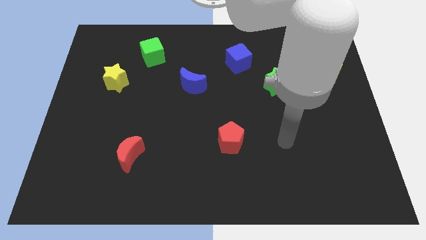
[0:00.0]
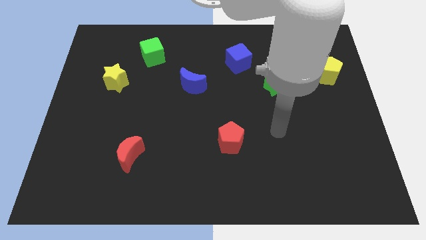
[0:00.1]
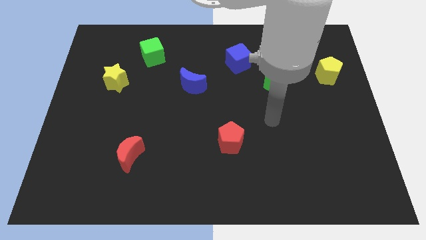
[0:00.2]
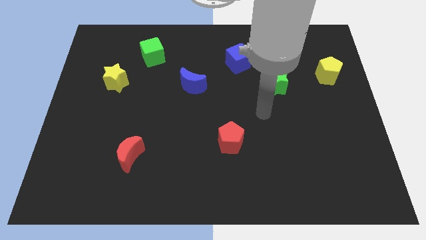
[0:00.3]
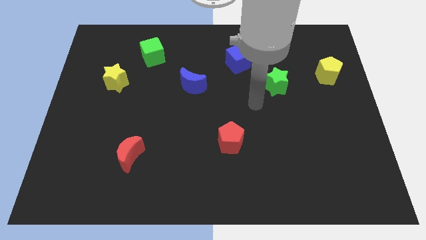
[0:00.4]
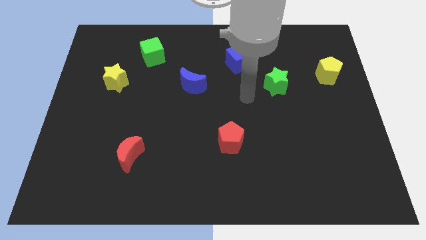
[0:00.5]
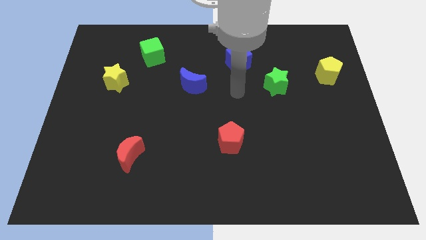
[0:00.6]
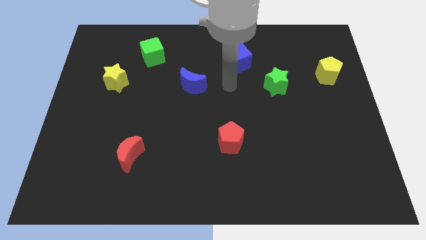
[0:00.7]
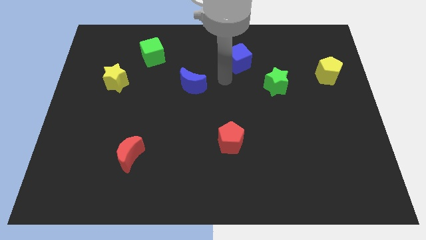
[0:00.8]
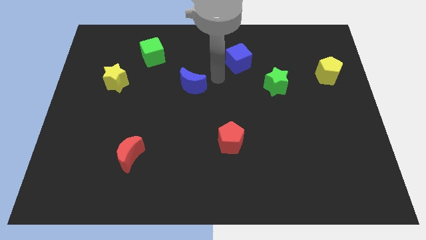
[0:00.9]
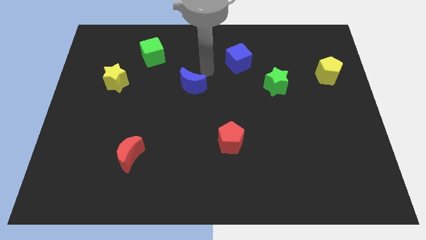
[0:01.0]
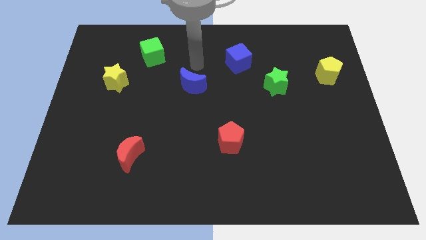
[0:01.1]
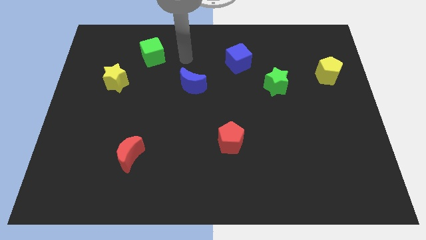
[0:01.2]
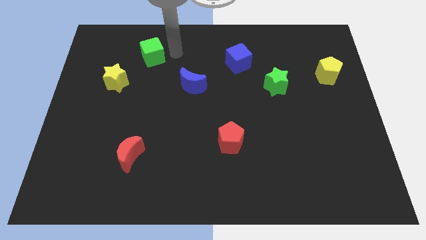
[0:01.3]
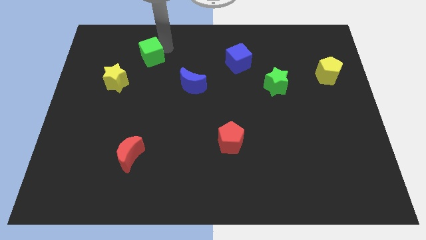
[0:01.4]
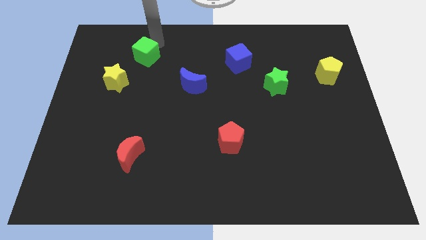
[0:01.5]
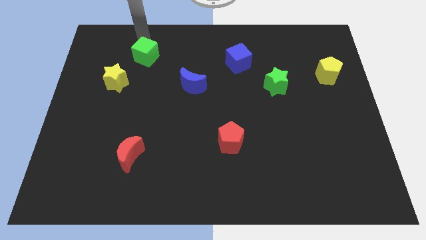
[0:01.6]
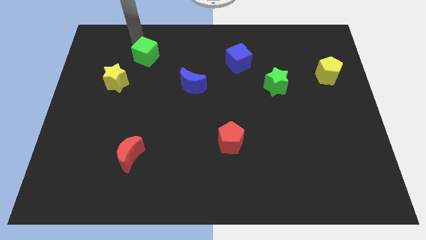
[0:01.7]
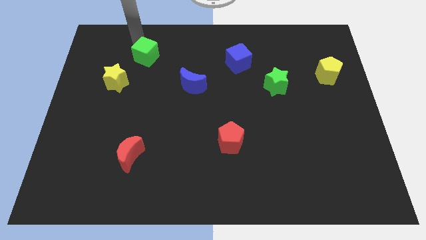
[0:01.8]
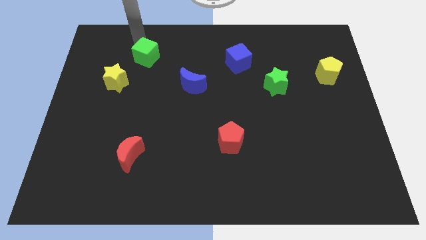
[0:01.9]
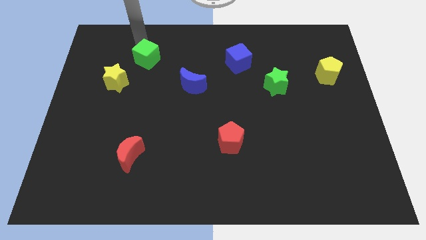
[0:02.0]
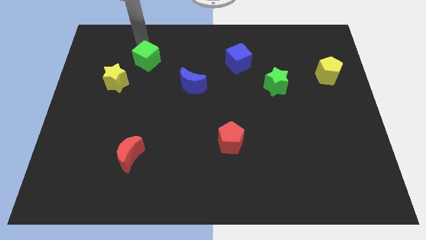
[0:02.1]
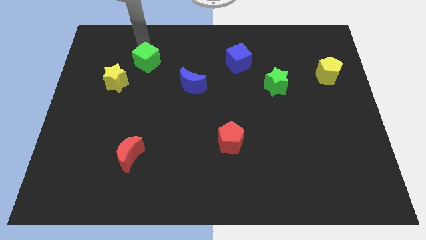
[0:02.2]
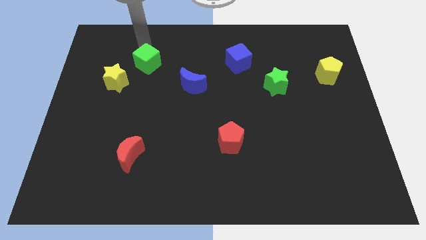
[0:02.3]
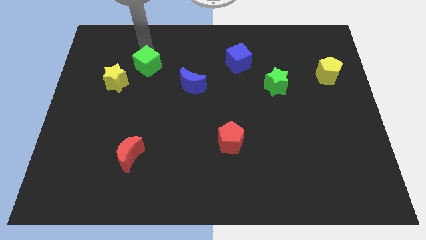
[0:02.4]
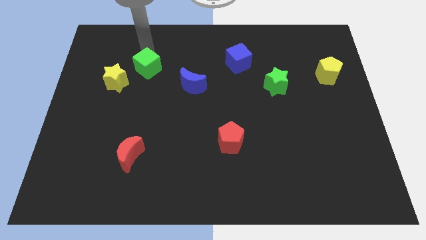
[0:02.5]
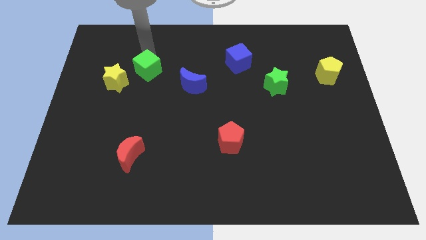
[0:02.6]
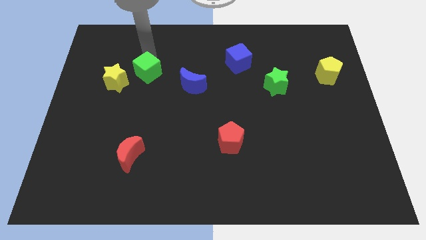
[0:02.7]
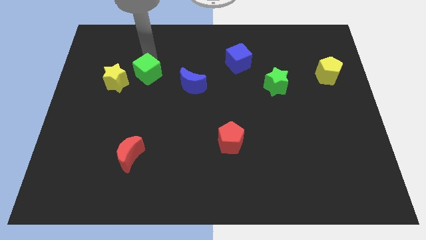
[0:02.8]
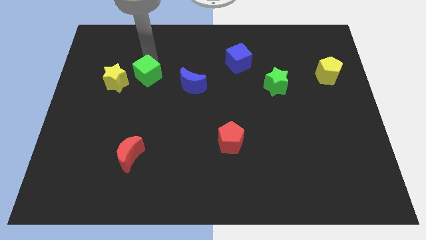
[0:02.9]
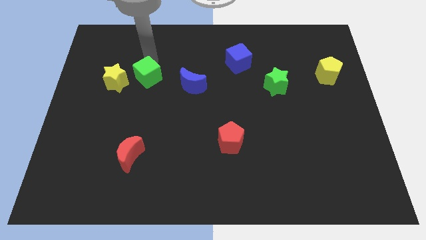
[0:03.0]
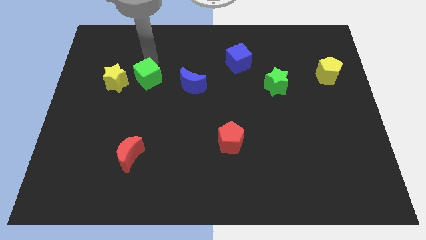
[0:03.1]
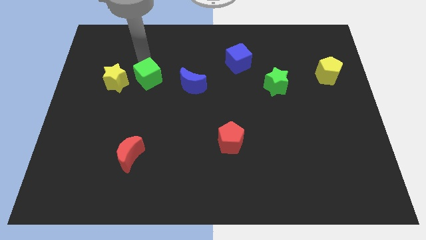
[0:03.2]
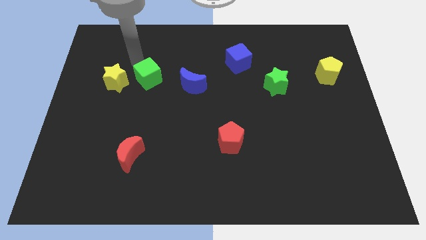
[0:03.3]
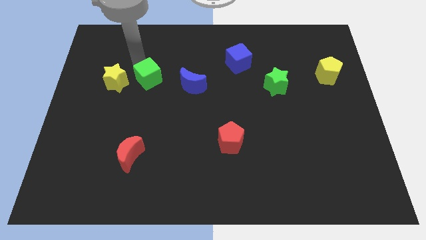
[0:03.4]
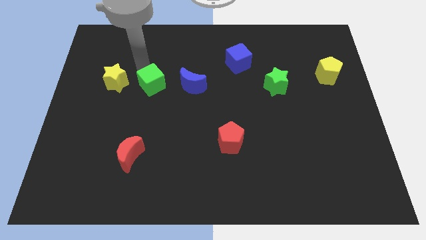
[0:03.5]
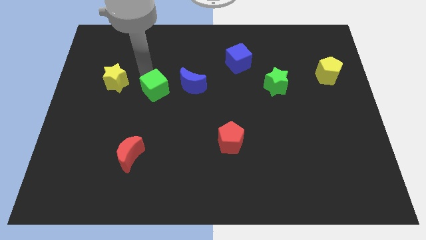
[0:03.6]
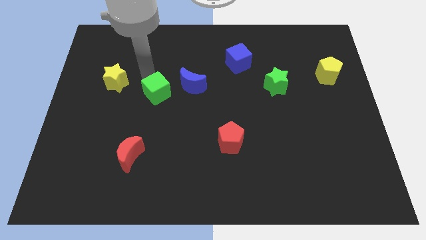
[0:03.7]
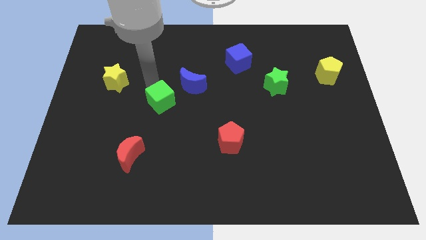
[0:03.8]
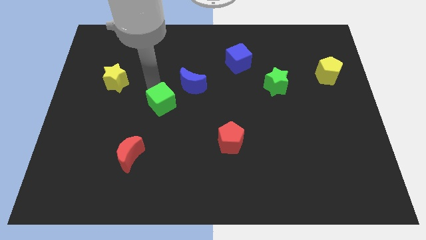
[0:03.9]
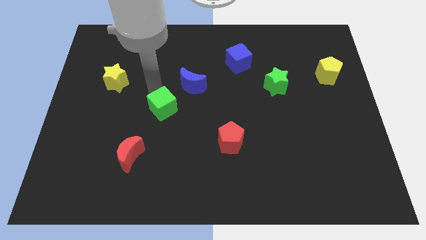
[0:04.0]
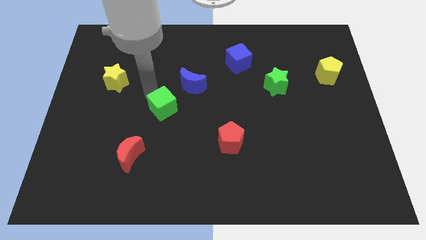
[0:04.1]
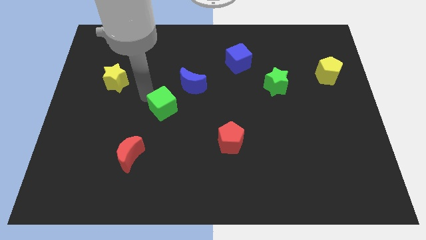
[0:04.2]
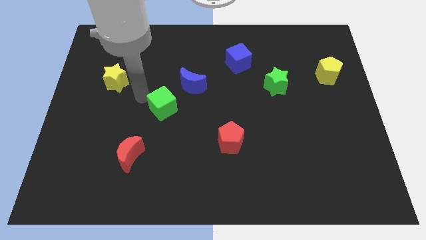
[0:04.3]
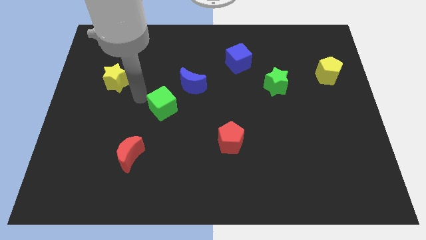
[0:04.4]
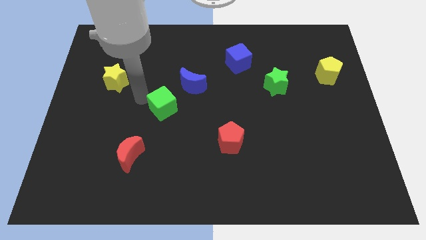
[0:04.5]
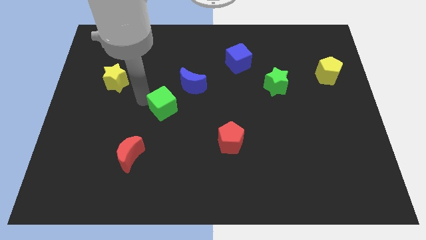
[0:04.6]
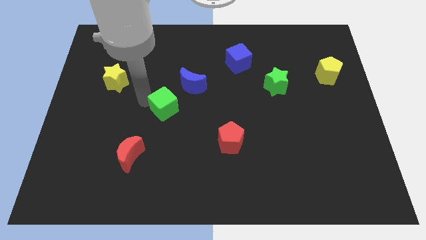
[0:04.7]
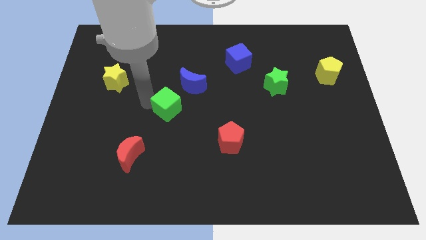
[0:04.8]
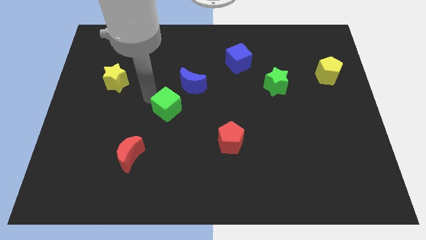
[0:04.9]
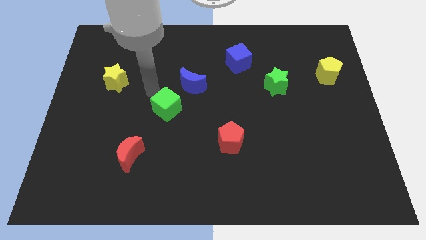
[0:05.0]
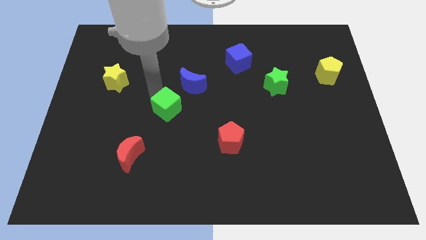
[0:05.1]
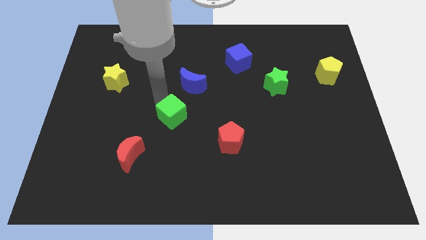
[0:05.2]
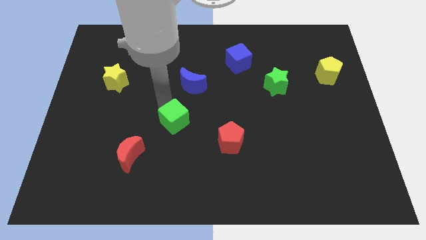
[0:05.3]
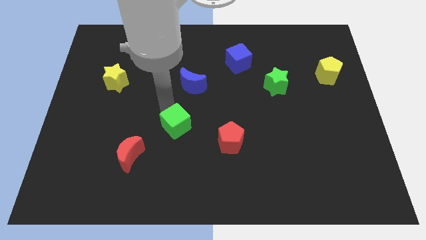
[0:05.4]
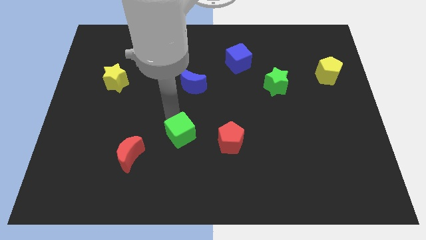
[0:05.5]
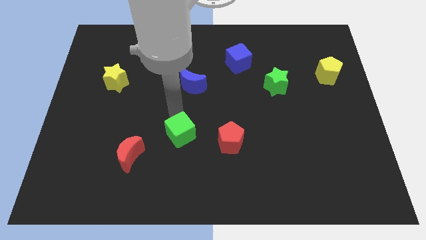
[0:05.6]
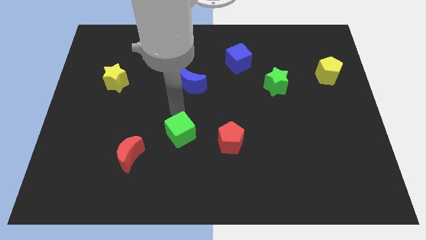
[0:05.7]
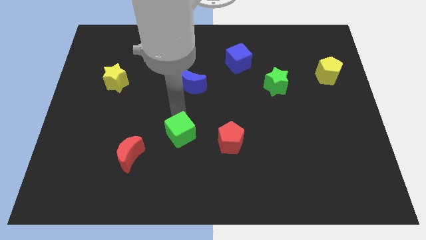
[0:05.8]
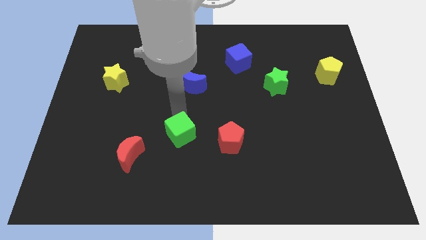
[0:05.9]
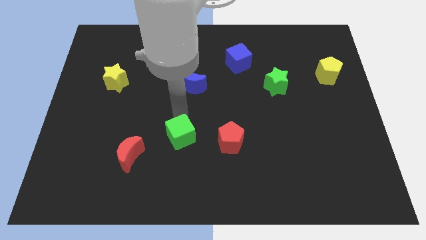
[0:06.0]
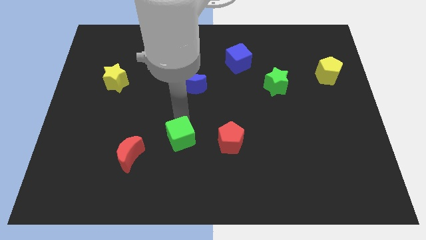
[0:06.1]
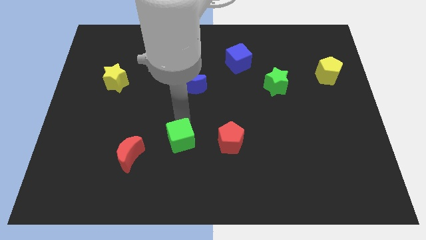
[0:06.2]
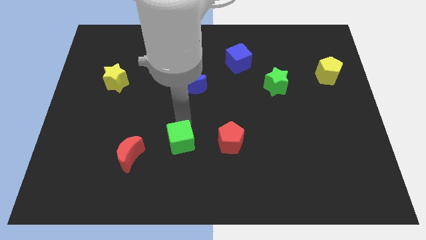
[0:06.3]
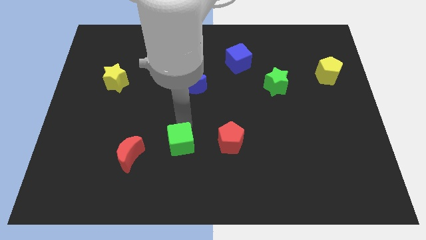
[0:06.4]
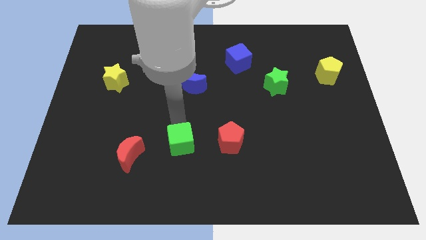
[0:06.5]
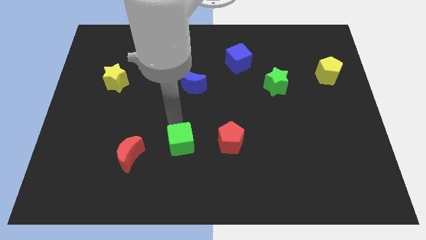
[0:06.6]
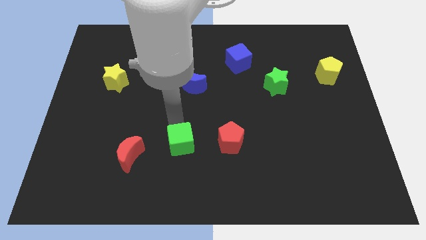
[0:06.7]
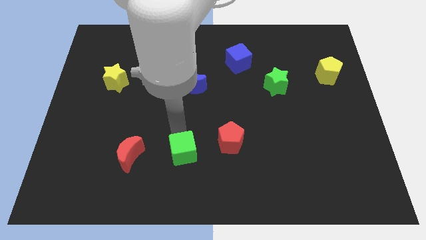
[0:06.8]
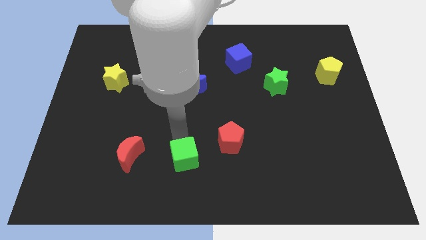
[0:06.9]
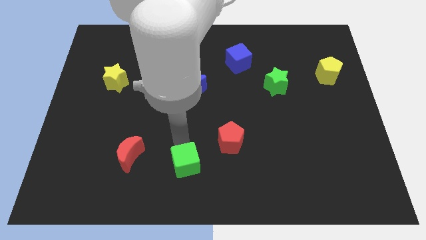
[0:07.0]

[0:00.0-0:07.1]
slide the green cube to the bottom side

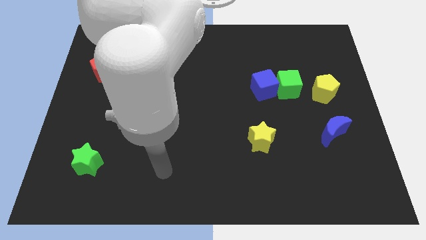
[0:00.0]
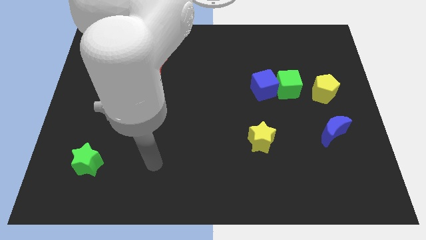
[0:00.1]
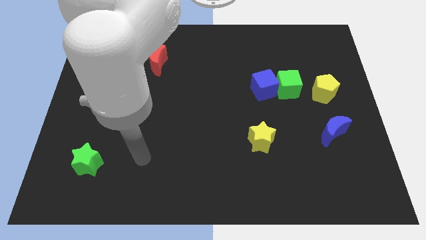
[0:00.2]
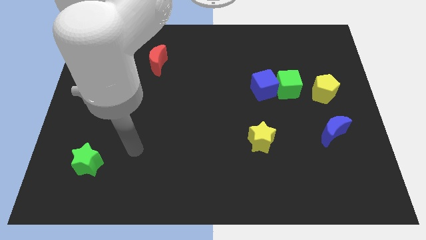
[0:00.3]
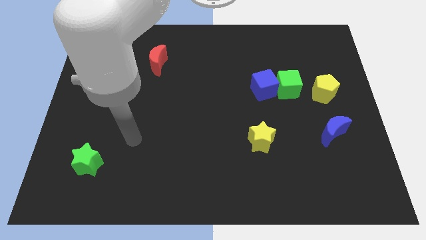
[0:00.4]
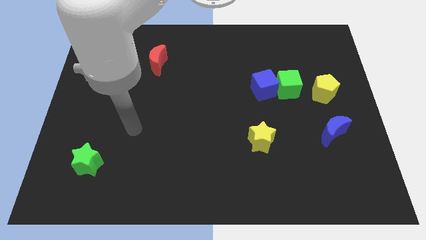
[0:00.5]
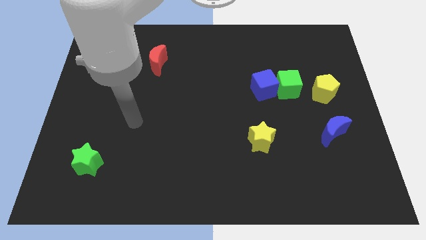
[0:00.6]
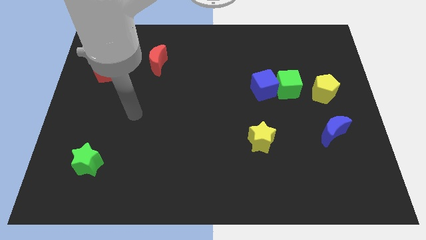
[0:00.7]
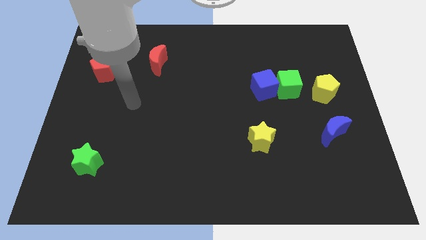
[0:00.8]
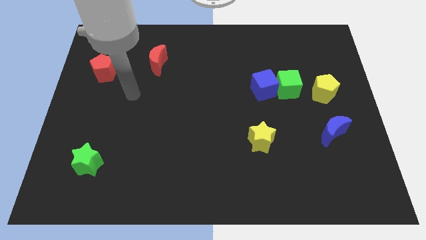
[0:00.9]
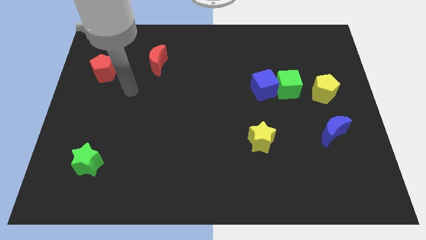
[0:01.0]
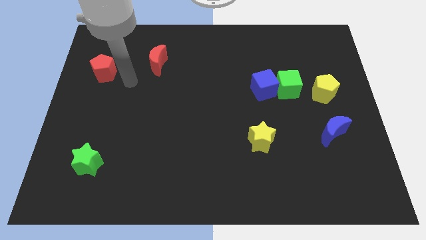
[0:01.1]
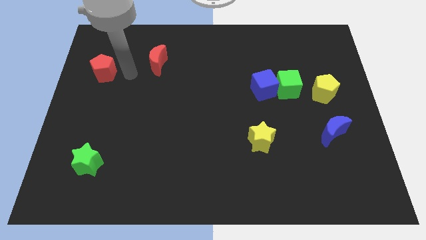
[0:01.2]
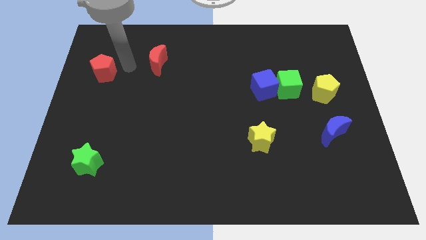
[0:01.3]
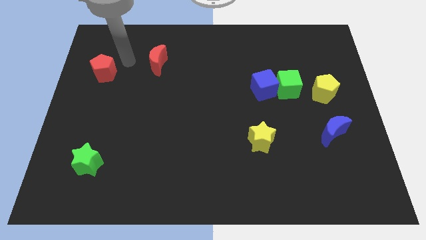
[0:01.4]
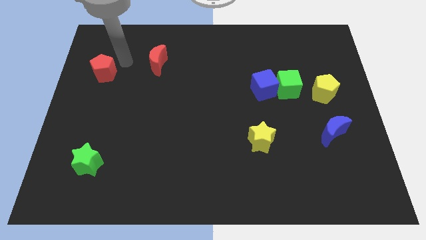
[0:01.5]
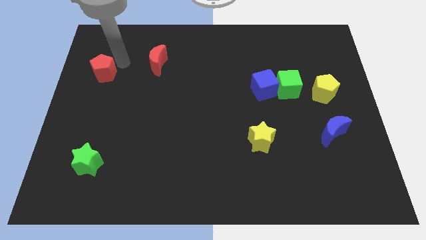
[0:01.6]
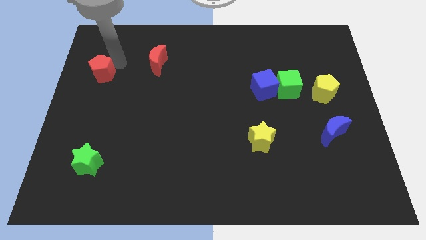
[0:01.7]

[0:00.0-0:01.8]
slide the red pentagon to the center left
